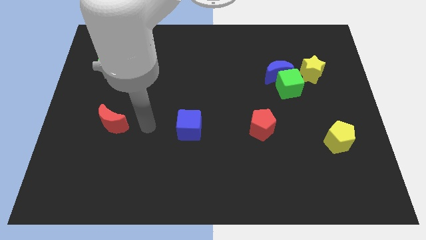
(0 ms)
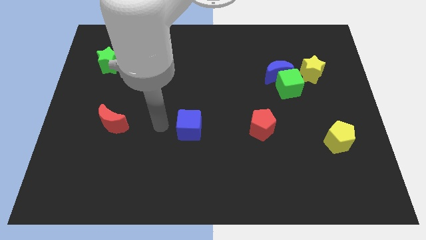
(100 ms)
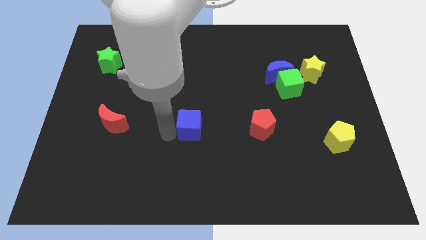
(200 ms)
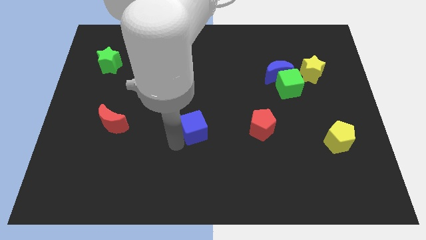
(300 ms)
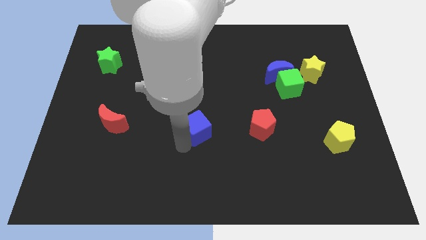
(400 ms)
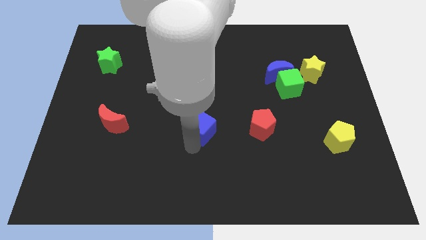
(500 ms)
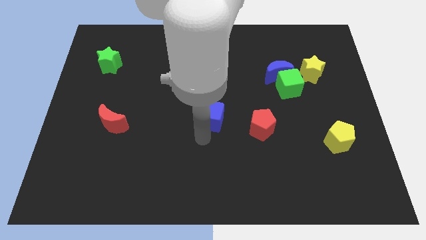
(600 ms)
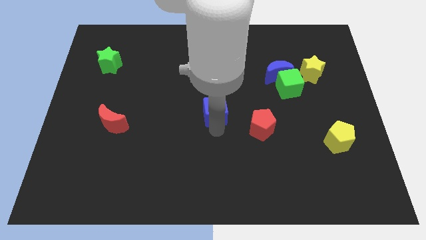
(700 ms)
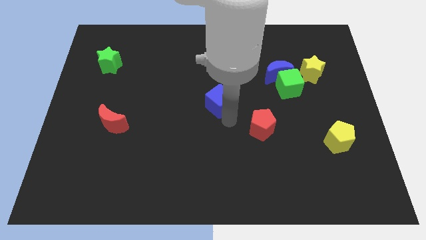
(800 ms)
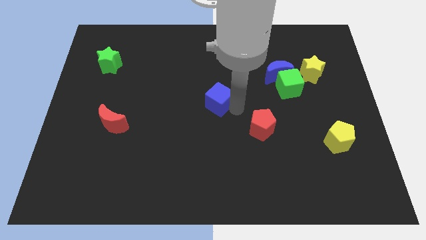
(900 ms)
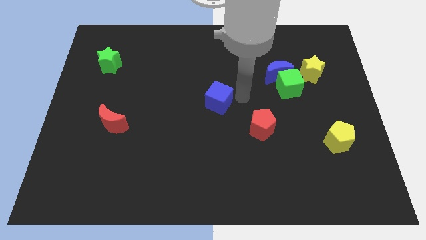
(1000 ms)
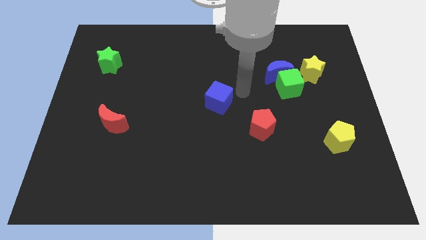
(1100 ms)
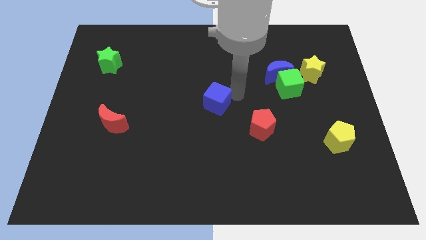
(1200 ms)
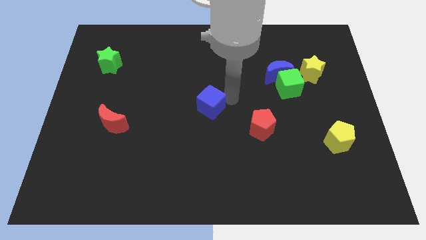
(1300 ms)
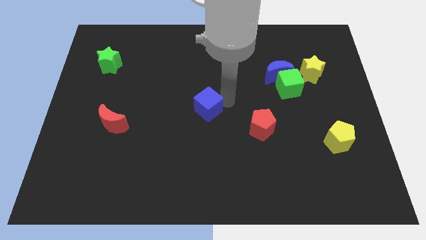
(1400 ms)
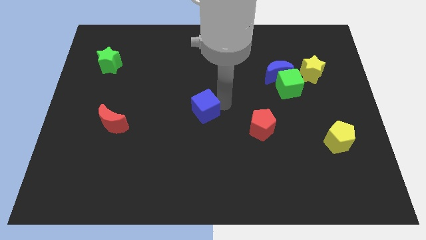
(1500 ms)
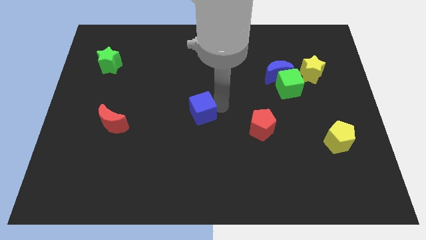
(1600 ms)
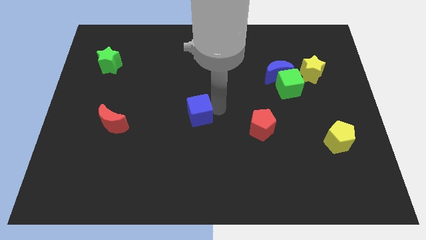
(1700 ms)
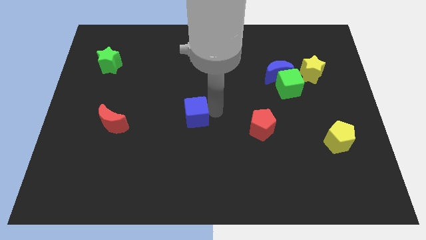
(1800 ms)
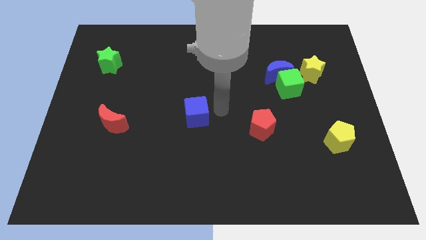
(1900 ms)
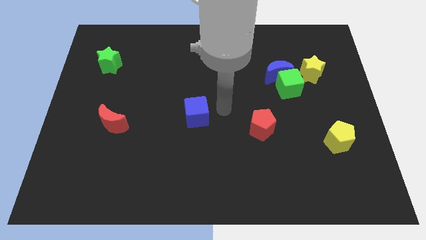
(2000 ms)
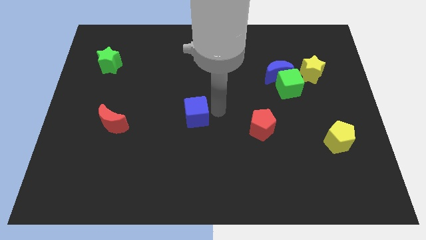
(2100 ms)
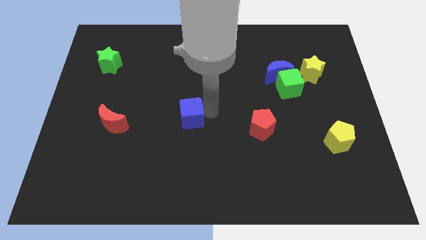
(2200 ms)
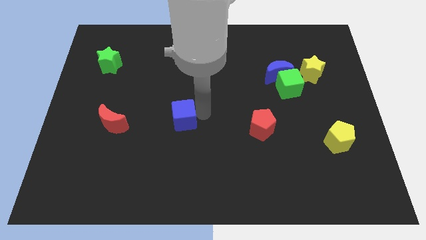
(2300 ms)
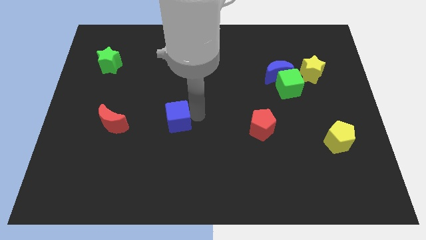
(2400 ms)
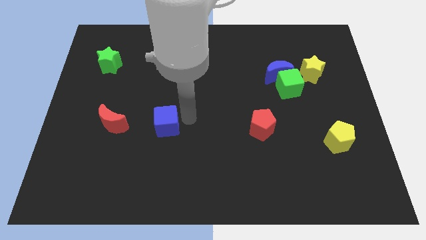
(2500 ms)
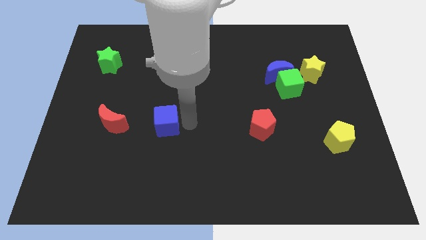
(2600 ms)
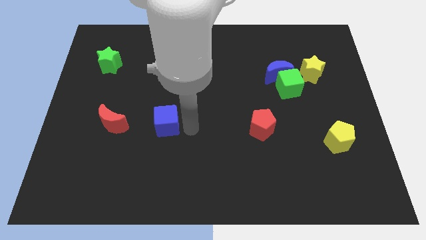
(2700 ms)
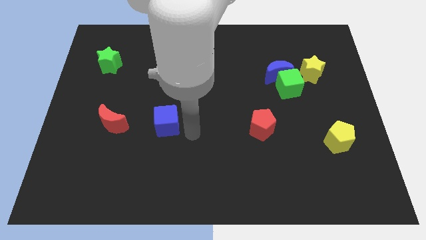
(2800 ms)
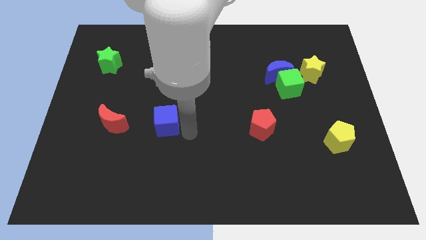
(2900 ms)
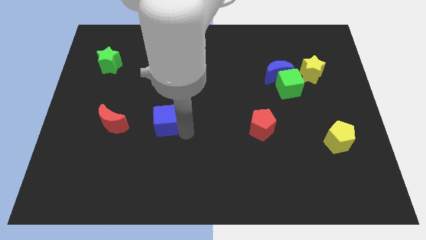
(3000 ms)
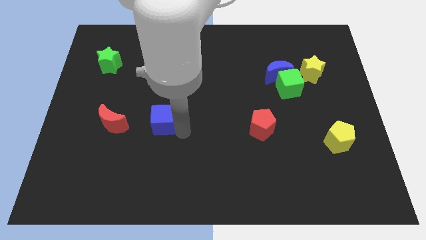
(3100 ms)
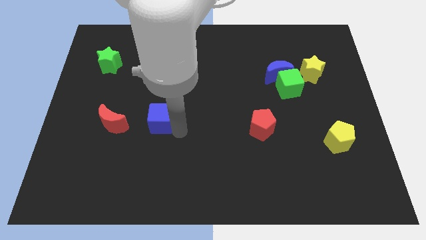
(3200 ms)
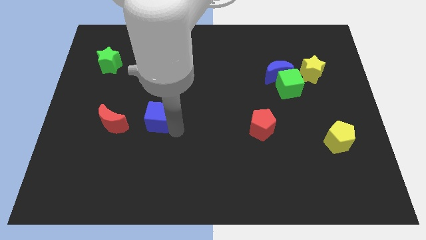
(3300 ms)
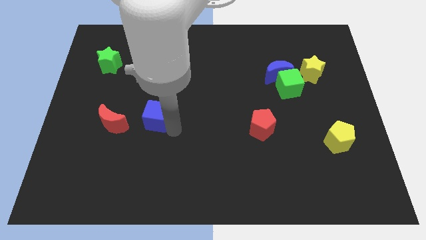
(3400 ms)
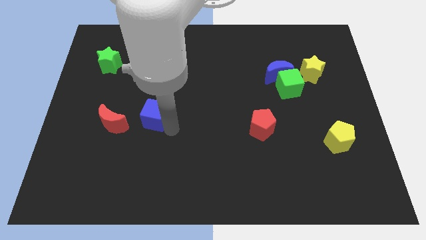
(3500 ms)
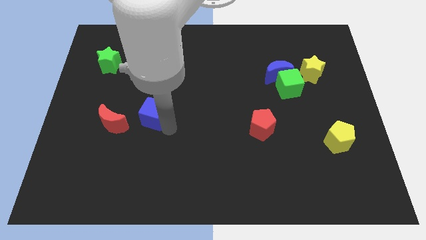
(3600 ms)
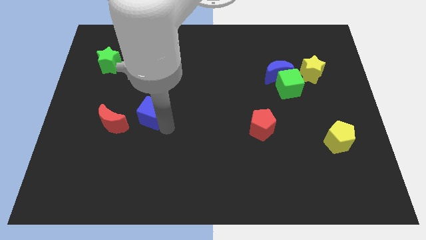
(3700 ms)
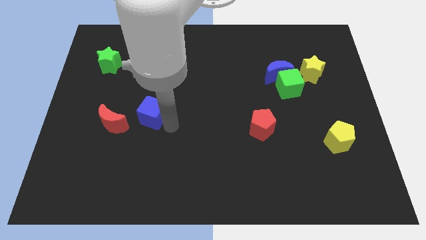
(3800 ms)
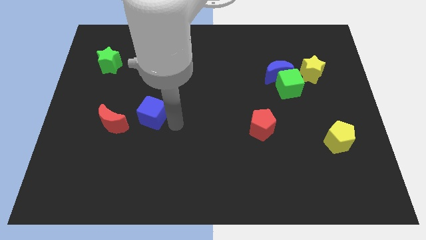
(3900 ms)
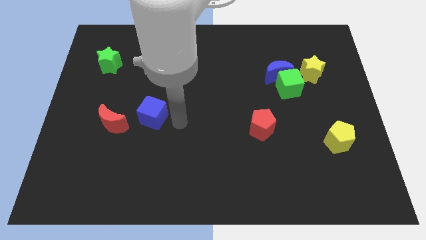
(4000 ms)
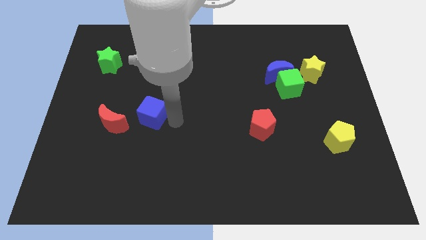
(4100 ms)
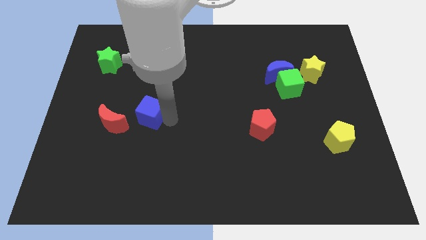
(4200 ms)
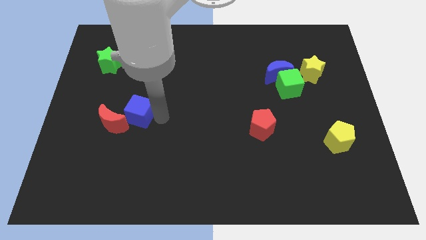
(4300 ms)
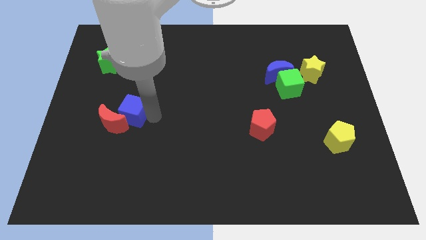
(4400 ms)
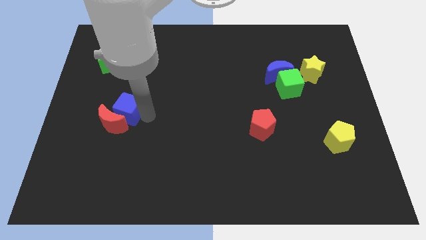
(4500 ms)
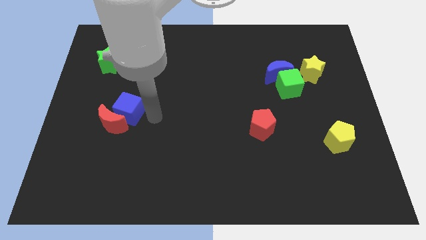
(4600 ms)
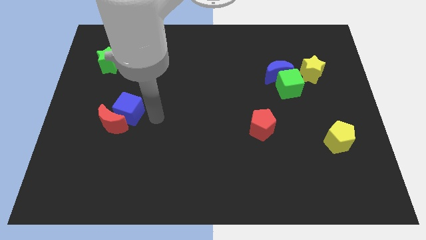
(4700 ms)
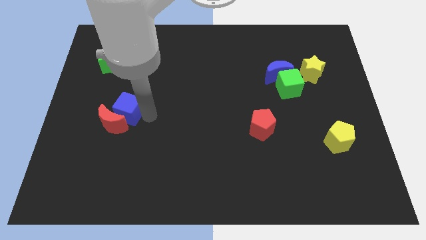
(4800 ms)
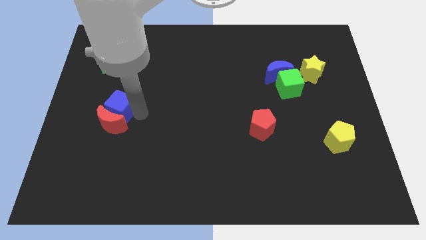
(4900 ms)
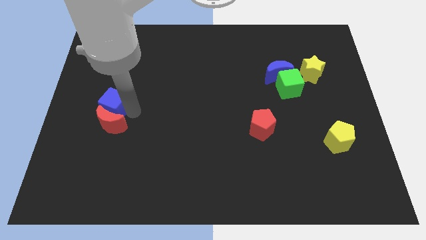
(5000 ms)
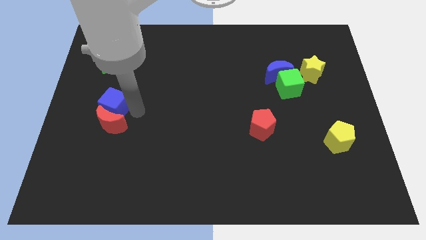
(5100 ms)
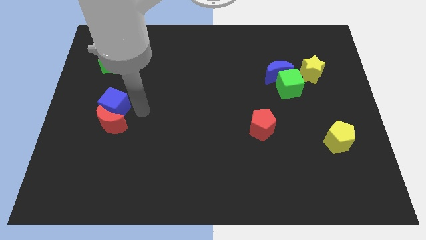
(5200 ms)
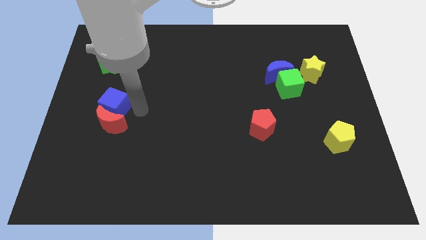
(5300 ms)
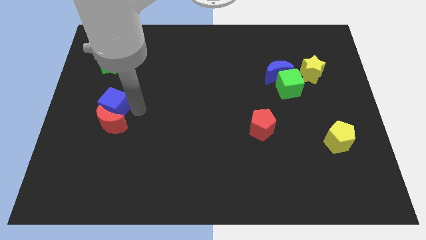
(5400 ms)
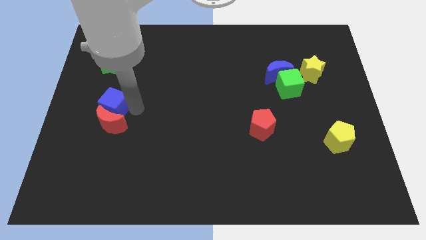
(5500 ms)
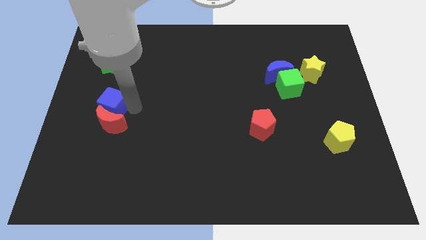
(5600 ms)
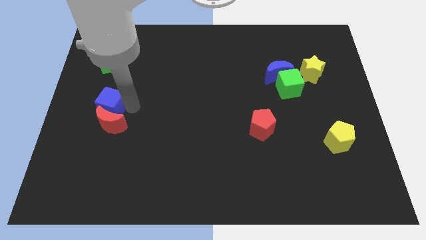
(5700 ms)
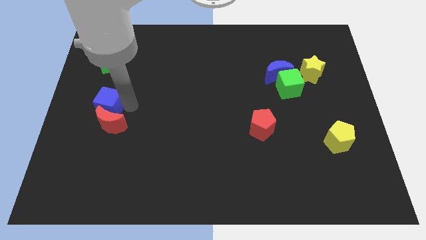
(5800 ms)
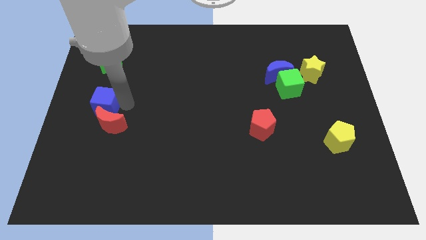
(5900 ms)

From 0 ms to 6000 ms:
push the blue cube to the left side
